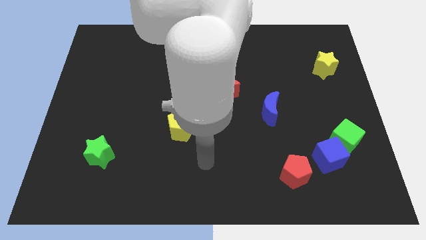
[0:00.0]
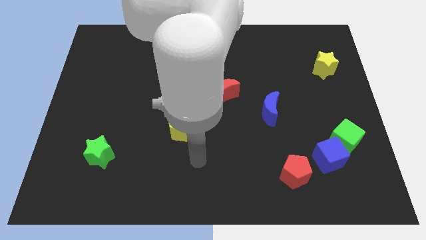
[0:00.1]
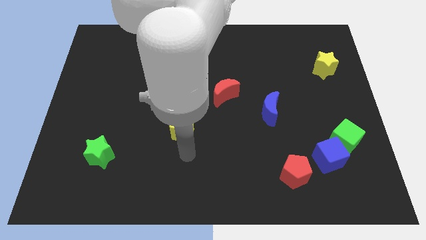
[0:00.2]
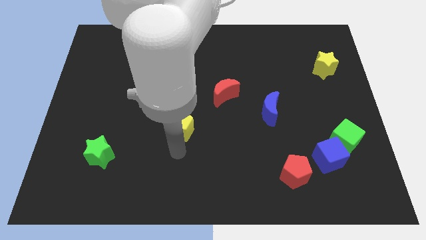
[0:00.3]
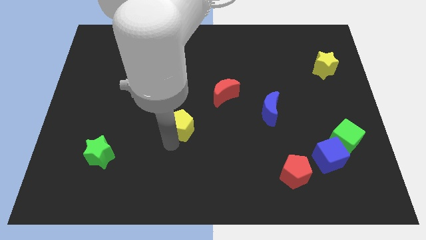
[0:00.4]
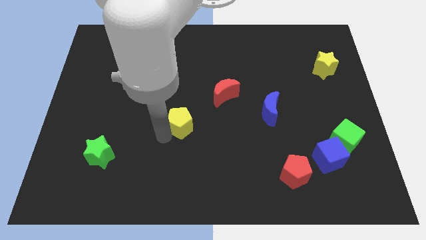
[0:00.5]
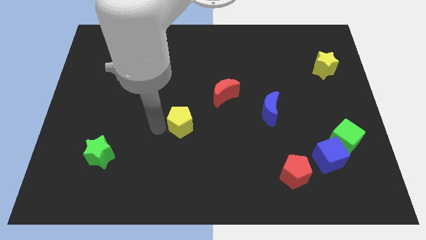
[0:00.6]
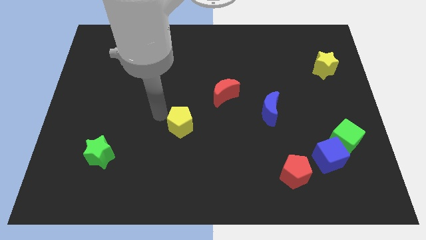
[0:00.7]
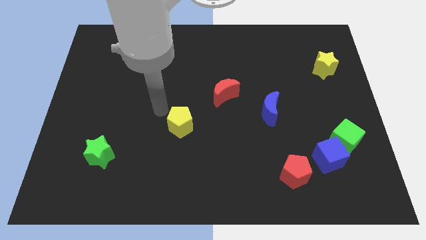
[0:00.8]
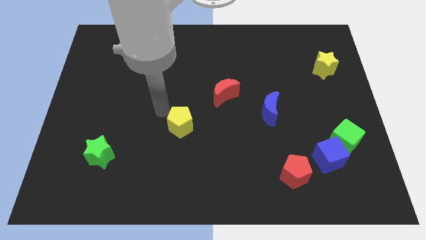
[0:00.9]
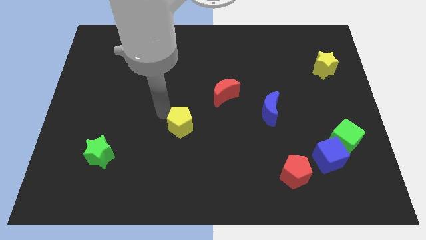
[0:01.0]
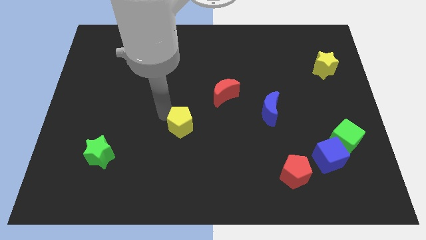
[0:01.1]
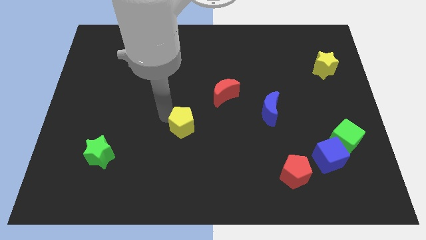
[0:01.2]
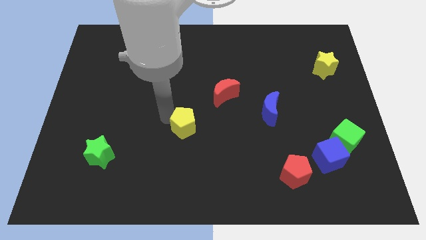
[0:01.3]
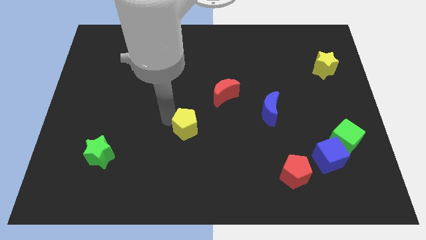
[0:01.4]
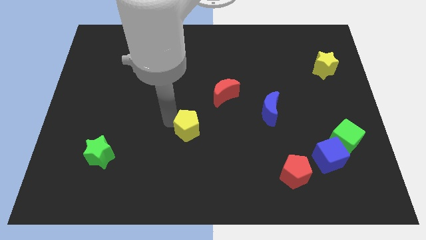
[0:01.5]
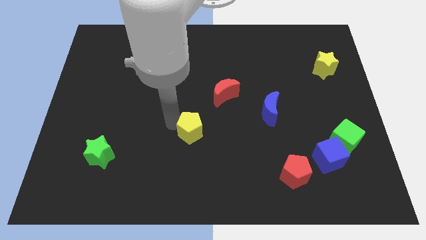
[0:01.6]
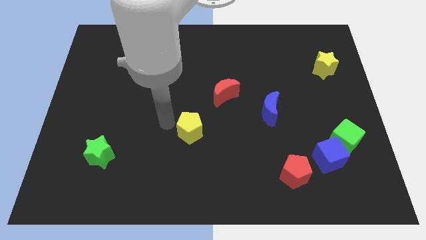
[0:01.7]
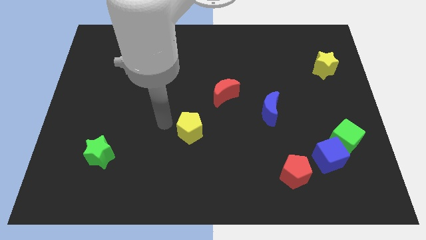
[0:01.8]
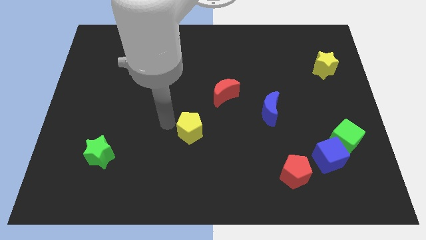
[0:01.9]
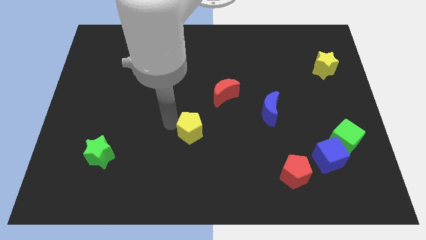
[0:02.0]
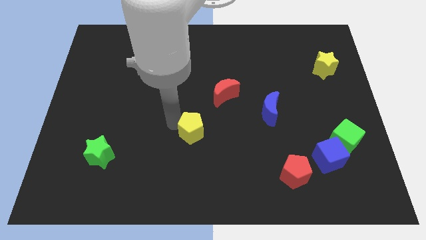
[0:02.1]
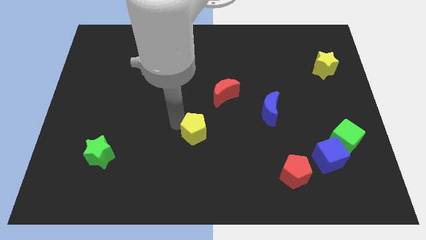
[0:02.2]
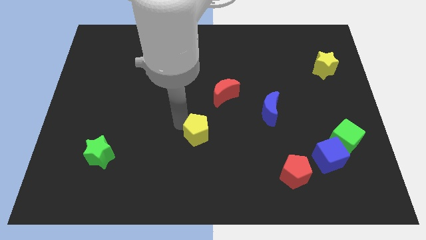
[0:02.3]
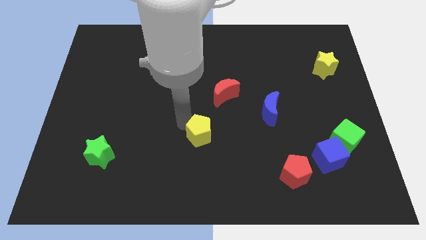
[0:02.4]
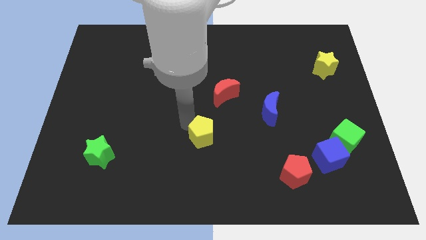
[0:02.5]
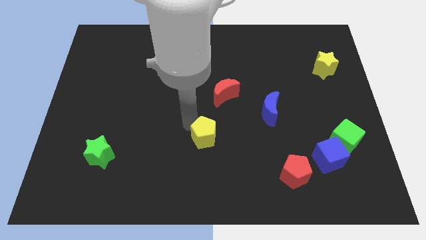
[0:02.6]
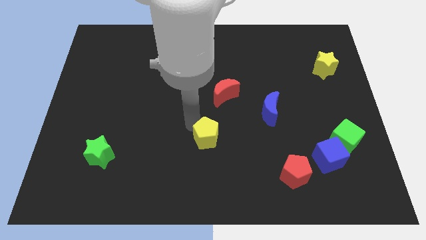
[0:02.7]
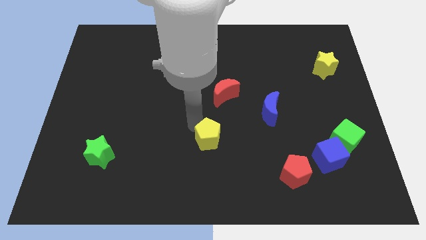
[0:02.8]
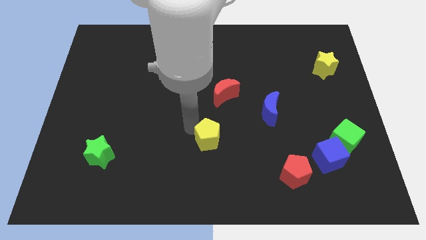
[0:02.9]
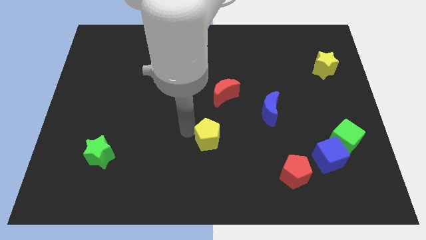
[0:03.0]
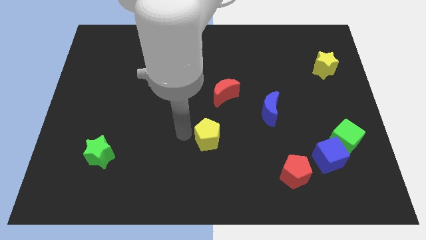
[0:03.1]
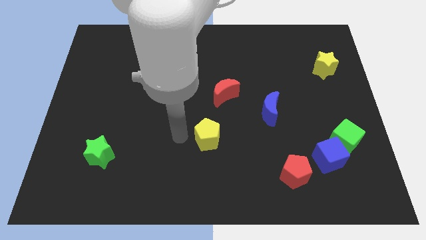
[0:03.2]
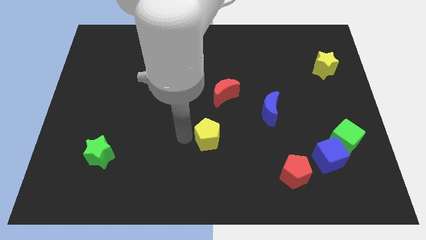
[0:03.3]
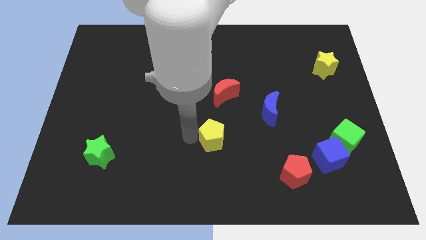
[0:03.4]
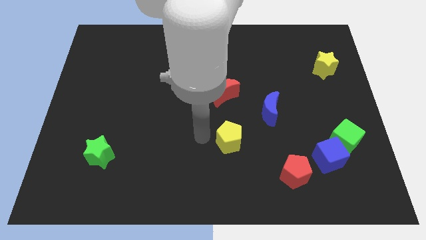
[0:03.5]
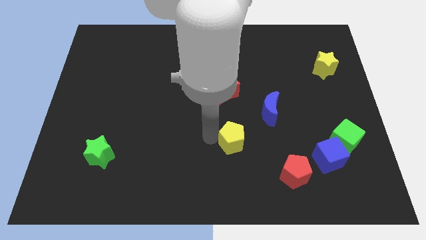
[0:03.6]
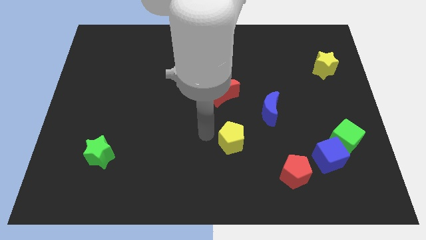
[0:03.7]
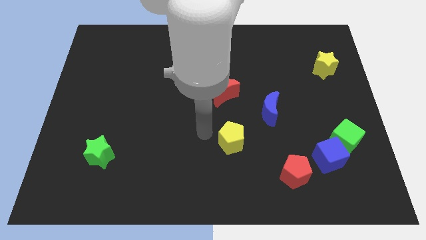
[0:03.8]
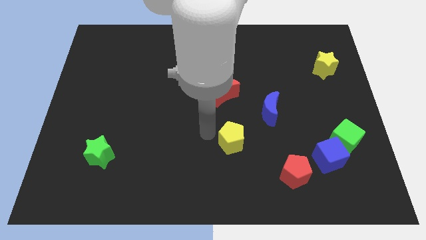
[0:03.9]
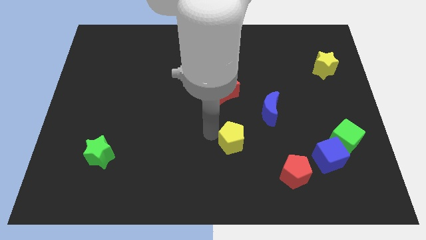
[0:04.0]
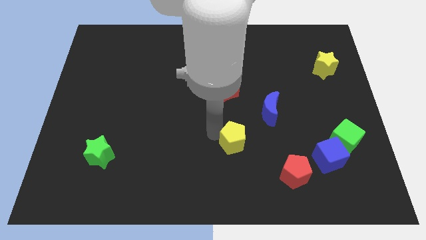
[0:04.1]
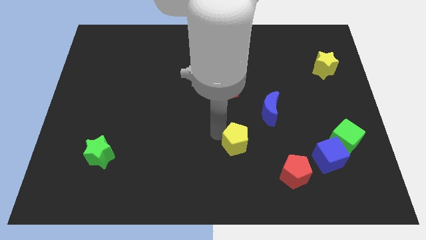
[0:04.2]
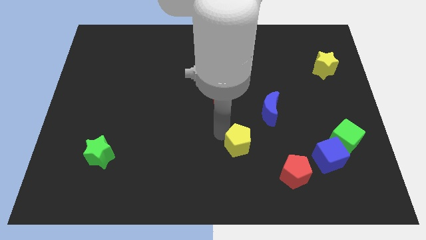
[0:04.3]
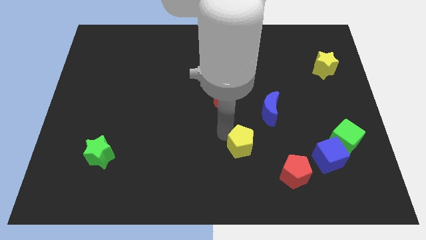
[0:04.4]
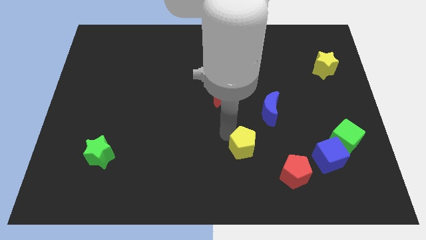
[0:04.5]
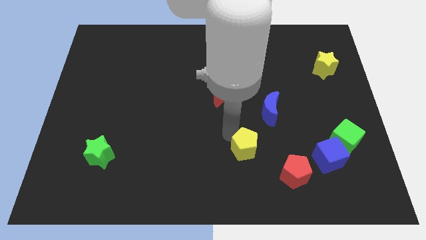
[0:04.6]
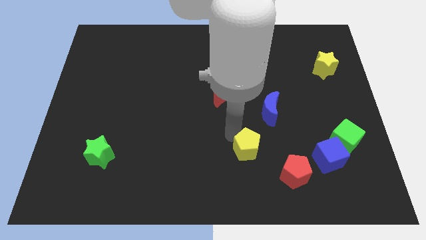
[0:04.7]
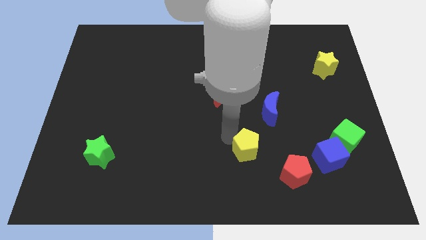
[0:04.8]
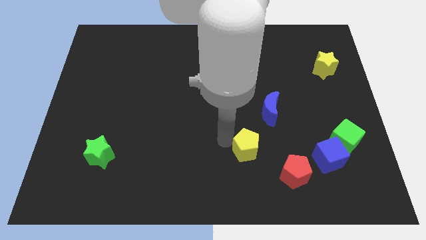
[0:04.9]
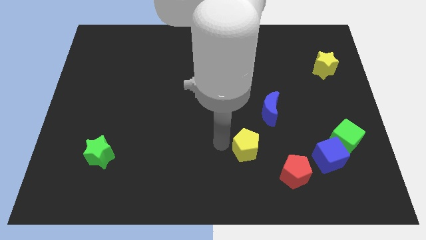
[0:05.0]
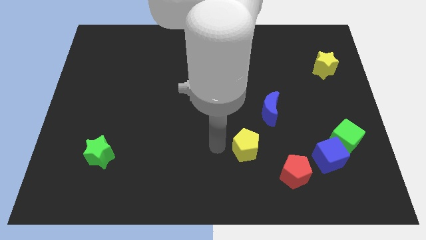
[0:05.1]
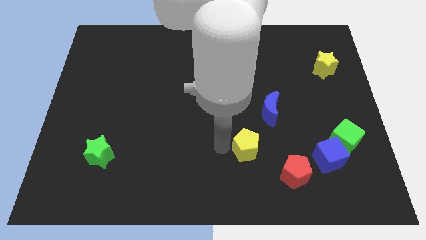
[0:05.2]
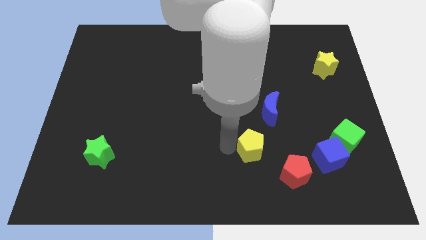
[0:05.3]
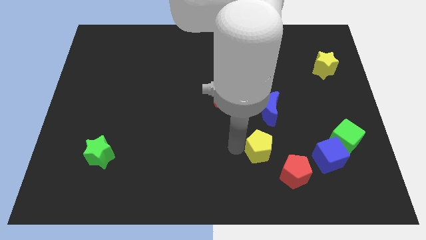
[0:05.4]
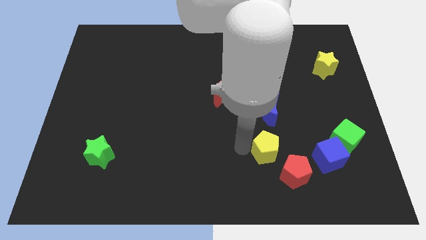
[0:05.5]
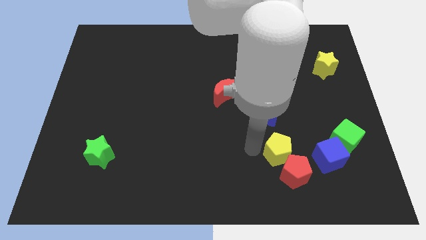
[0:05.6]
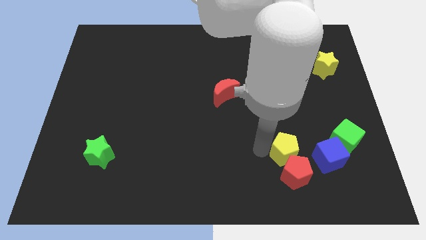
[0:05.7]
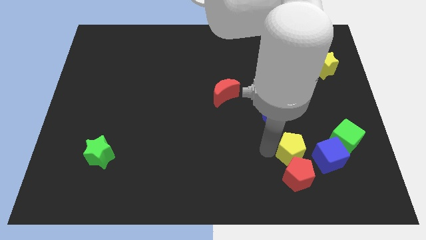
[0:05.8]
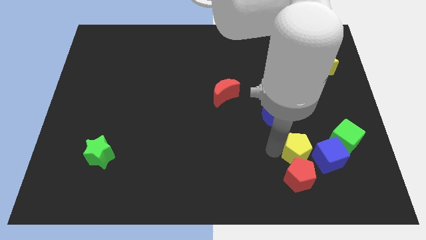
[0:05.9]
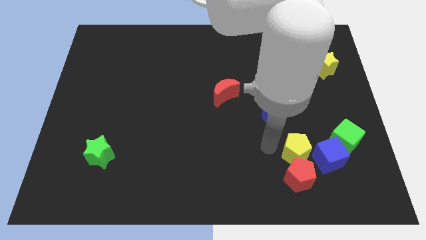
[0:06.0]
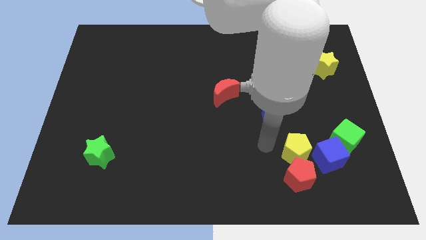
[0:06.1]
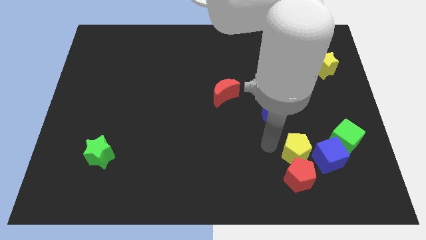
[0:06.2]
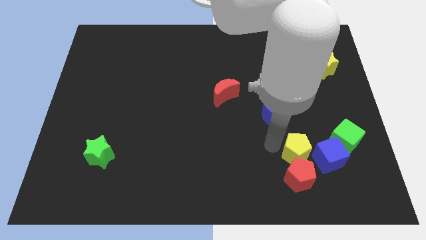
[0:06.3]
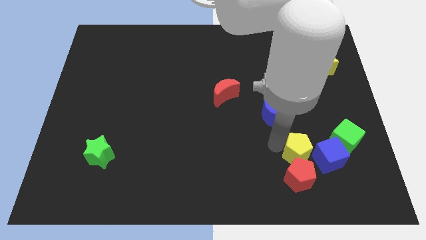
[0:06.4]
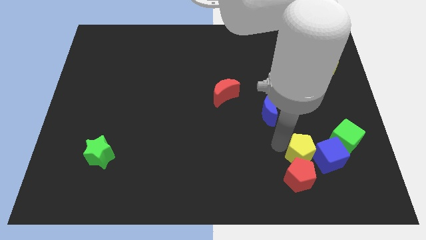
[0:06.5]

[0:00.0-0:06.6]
push the yellow pentagon towards the blue cube

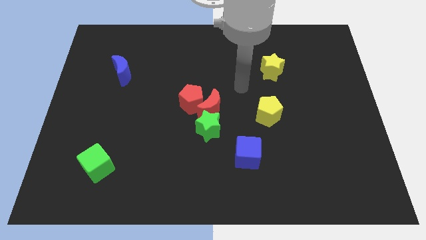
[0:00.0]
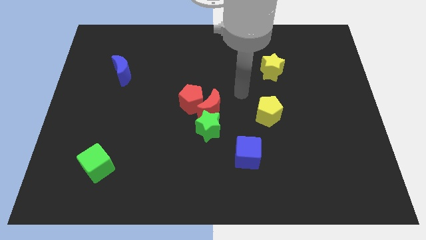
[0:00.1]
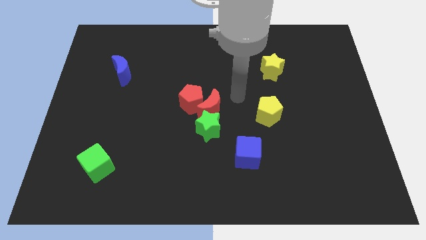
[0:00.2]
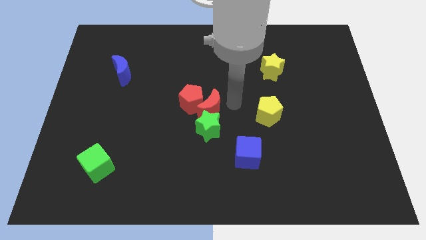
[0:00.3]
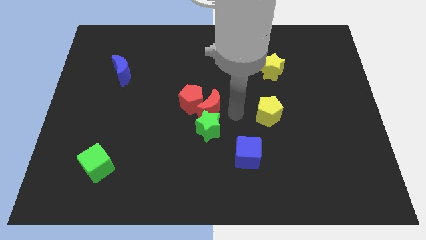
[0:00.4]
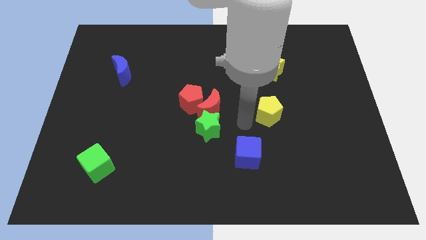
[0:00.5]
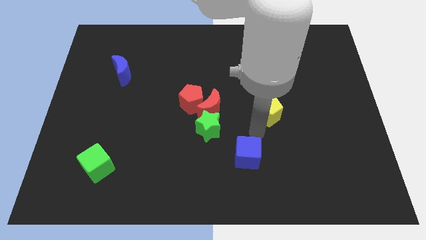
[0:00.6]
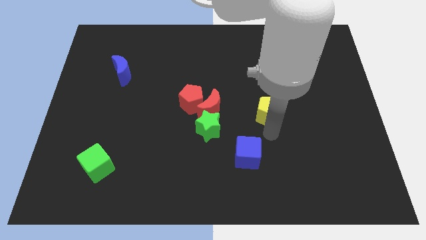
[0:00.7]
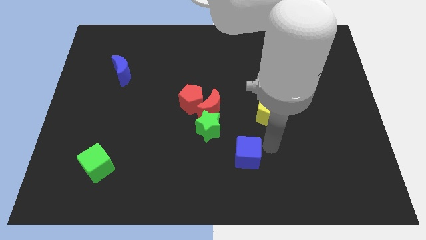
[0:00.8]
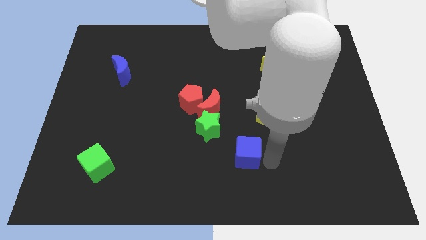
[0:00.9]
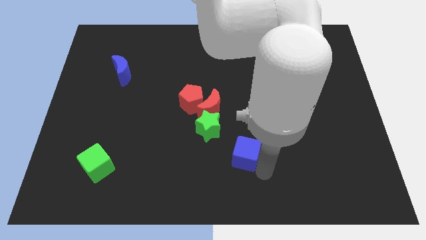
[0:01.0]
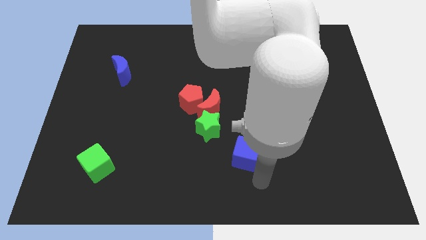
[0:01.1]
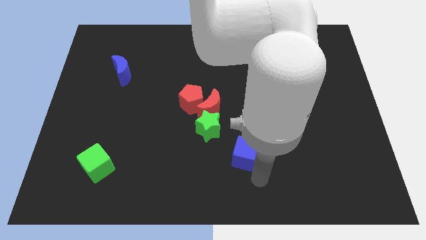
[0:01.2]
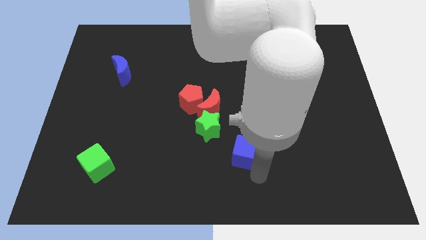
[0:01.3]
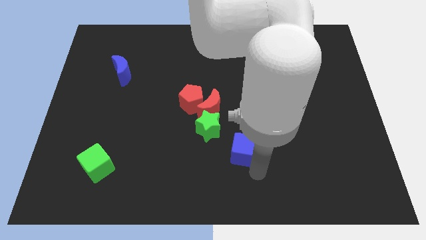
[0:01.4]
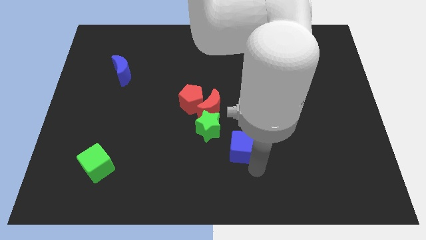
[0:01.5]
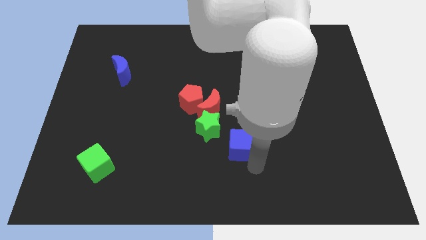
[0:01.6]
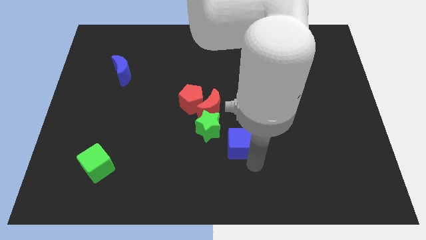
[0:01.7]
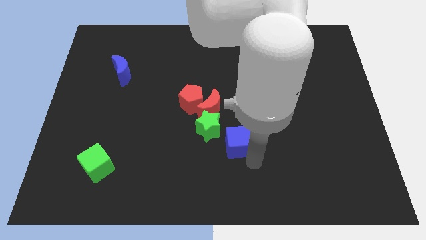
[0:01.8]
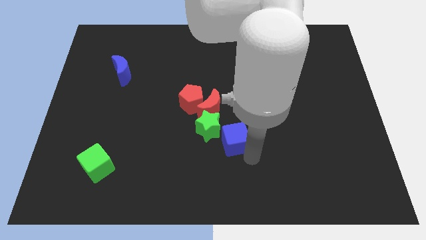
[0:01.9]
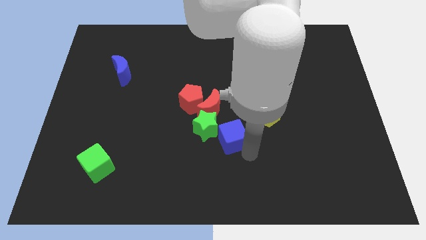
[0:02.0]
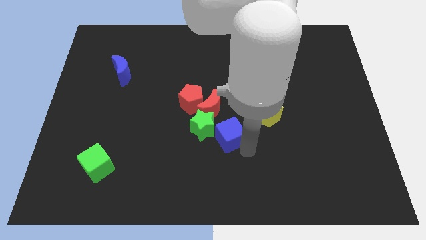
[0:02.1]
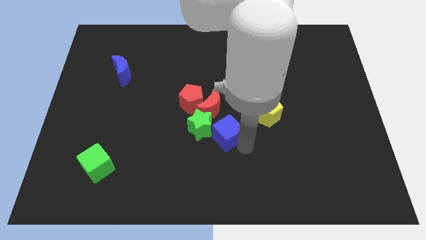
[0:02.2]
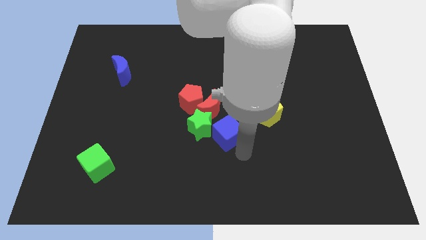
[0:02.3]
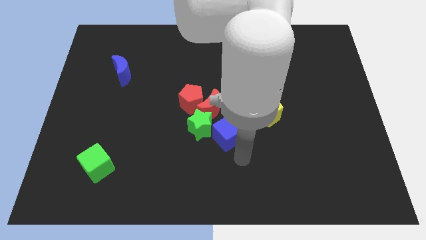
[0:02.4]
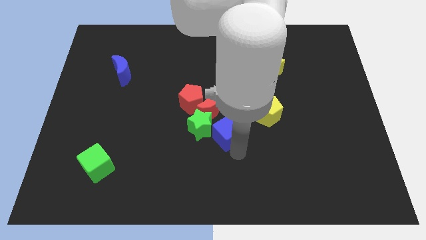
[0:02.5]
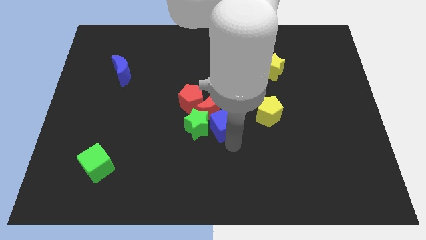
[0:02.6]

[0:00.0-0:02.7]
put the blue cube towards the red moon
